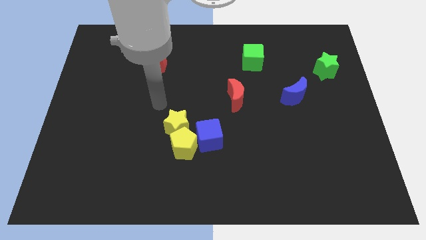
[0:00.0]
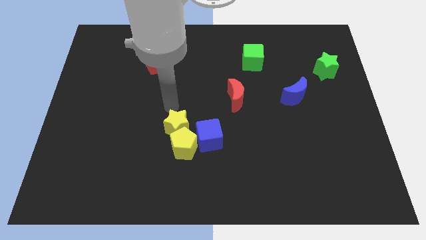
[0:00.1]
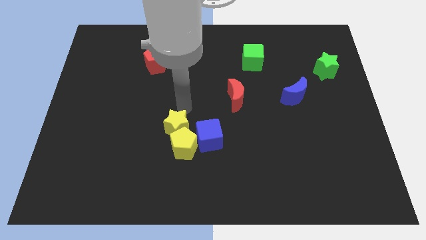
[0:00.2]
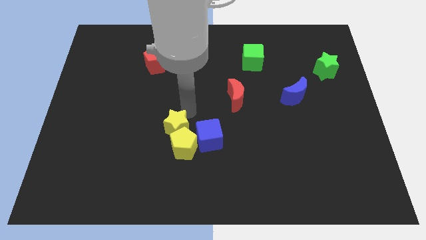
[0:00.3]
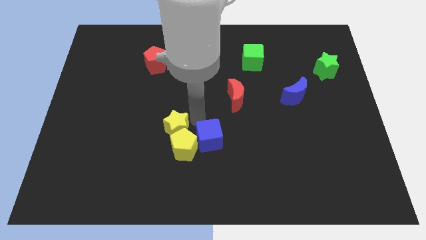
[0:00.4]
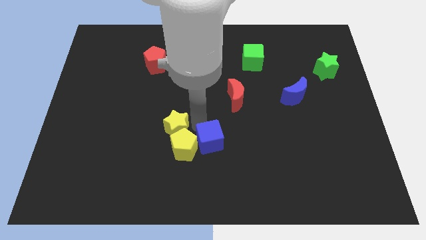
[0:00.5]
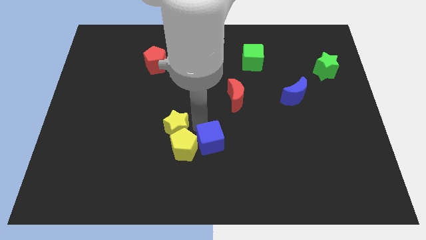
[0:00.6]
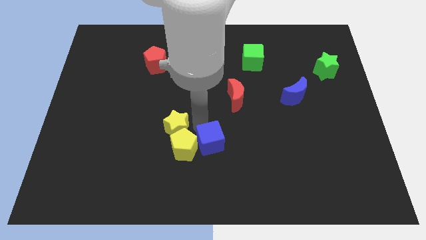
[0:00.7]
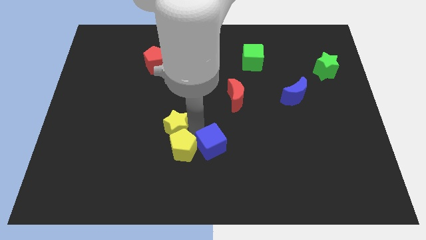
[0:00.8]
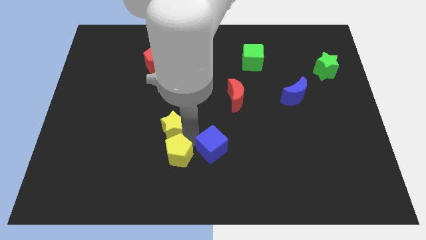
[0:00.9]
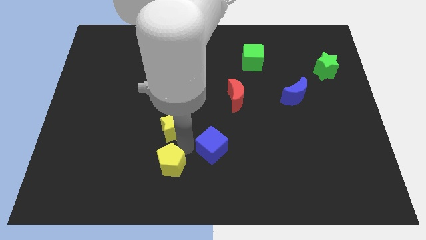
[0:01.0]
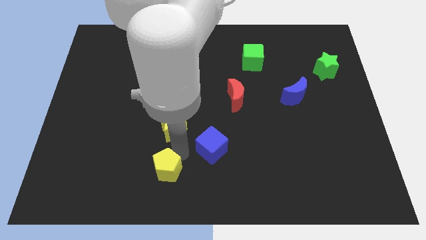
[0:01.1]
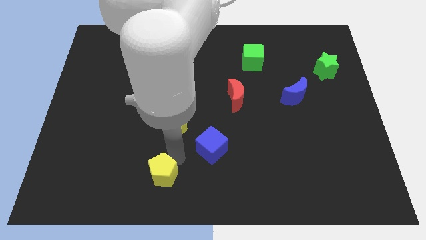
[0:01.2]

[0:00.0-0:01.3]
separate the yellow pentagon from the yellow star and blue cube

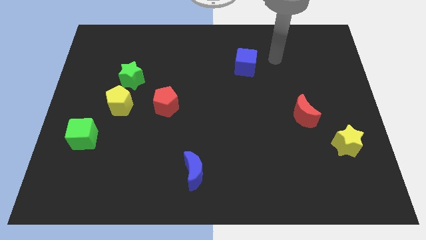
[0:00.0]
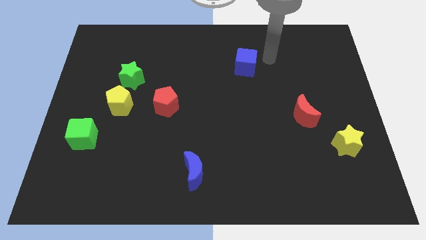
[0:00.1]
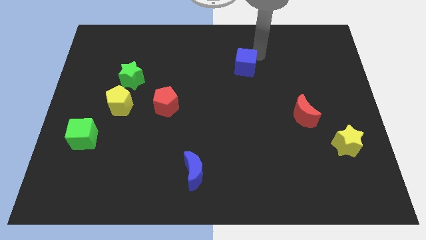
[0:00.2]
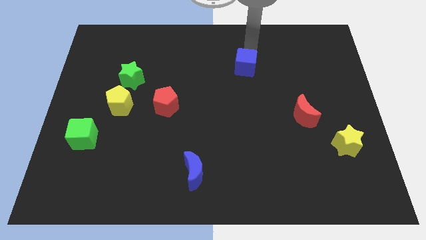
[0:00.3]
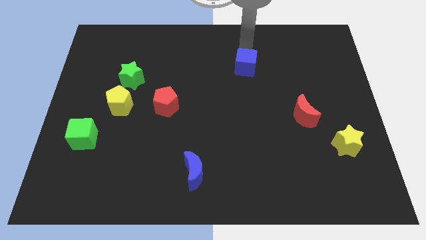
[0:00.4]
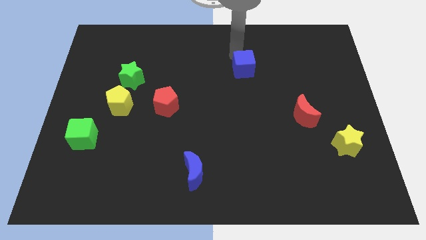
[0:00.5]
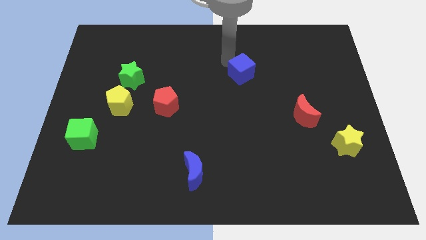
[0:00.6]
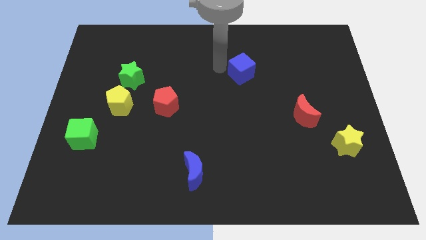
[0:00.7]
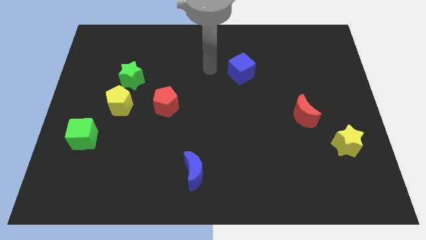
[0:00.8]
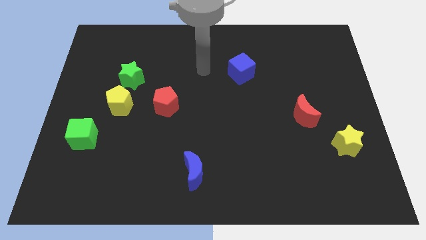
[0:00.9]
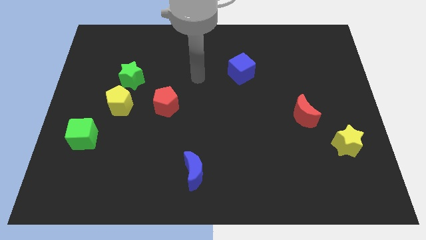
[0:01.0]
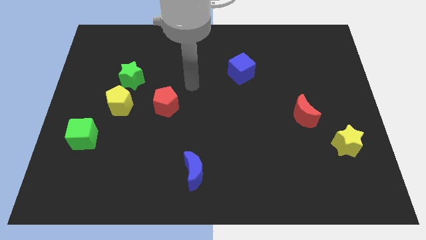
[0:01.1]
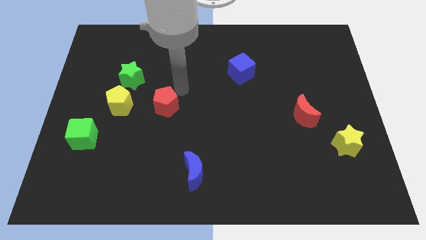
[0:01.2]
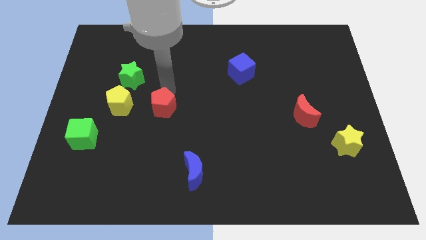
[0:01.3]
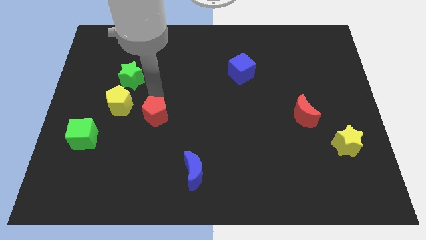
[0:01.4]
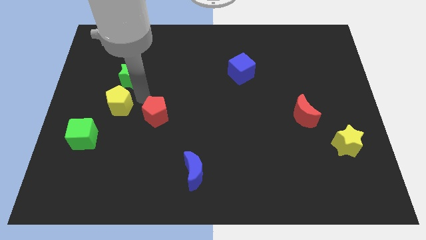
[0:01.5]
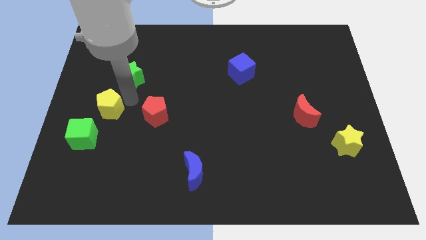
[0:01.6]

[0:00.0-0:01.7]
separate the green star from the yellow pentagon

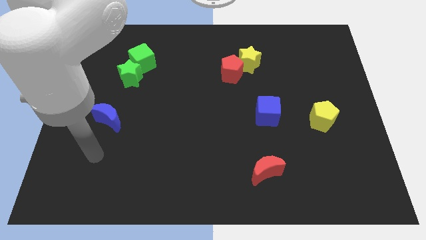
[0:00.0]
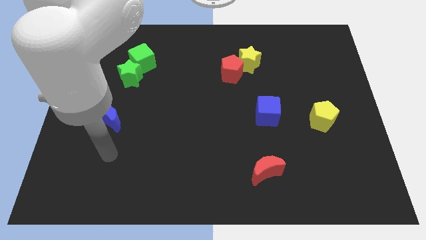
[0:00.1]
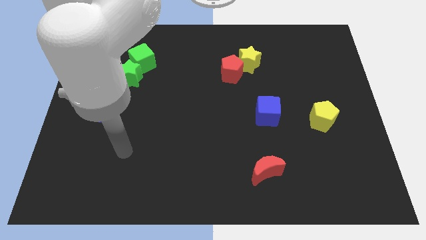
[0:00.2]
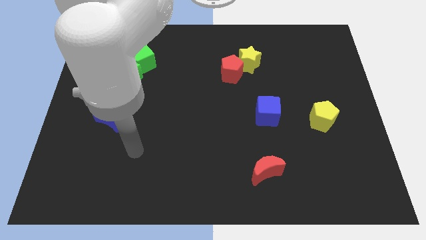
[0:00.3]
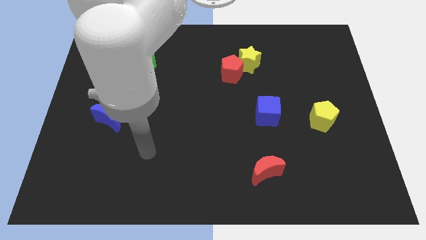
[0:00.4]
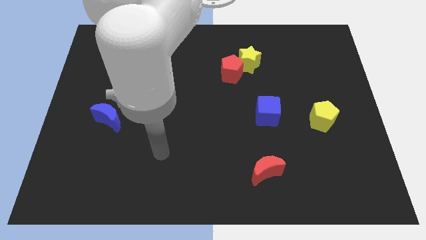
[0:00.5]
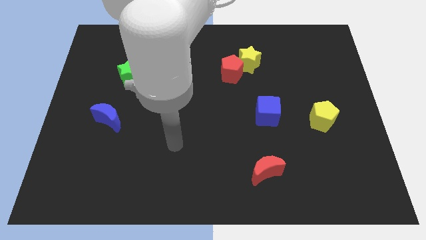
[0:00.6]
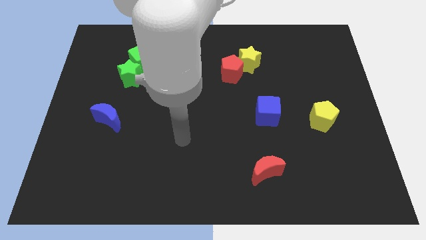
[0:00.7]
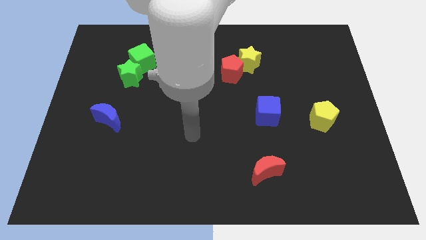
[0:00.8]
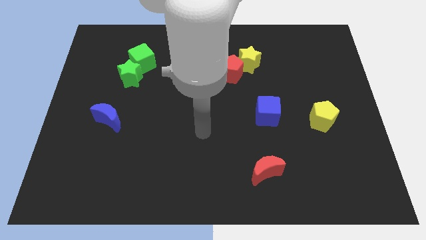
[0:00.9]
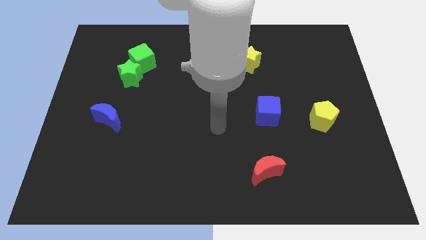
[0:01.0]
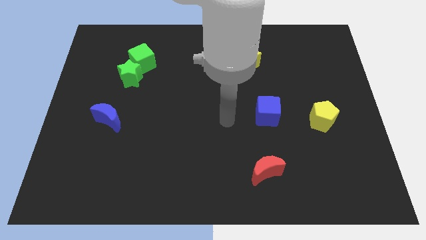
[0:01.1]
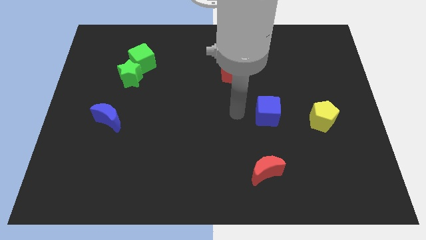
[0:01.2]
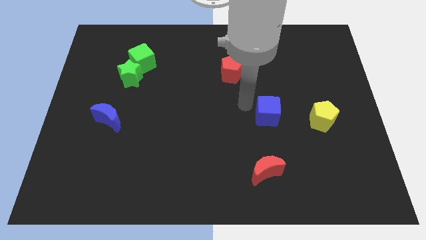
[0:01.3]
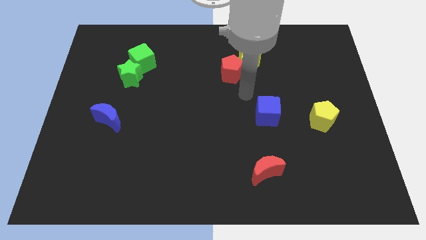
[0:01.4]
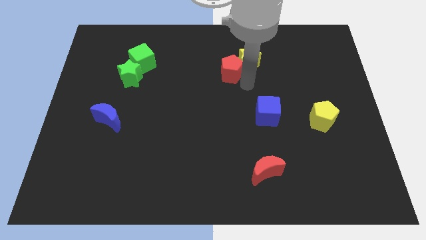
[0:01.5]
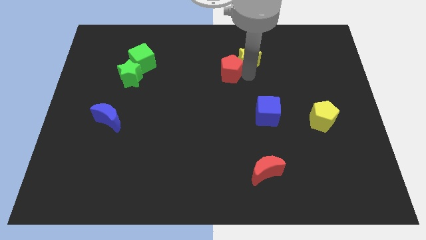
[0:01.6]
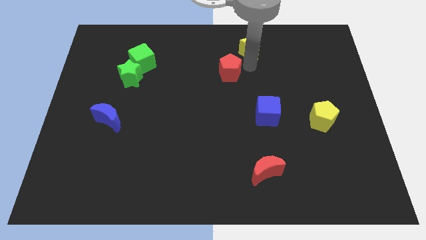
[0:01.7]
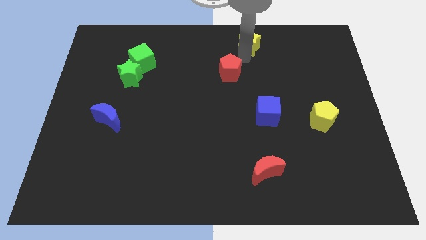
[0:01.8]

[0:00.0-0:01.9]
pull the red pentagon apart from the yellow star

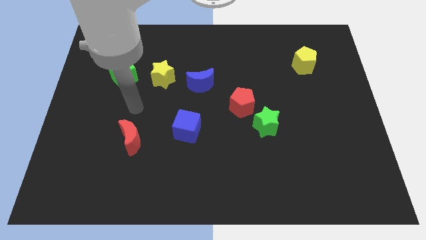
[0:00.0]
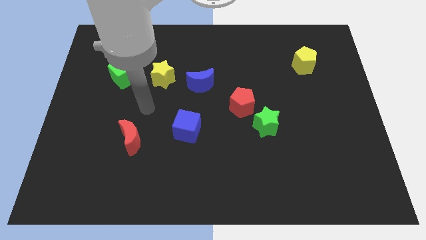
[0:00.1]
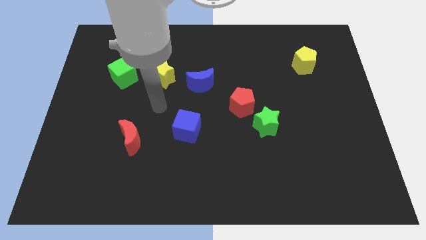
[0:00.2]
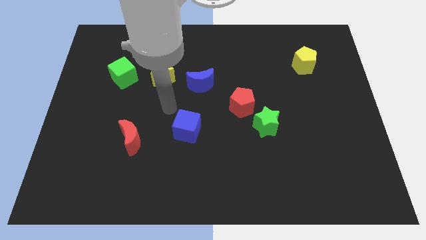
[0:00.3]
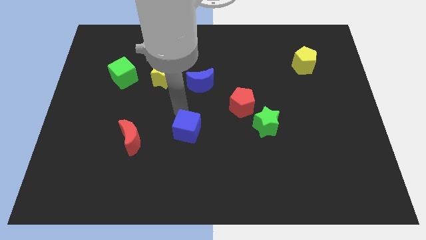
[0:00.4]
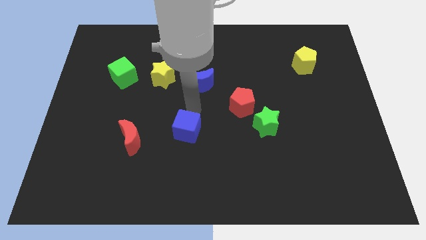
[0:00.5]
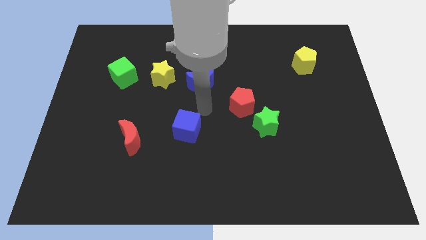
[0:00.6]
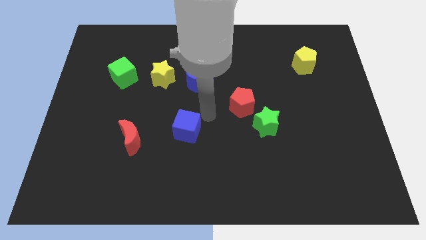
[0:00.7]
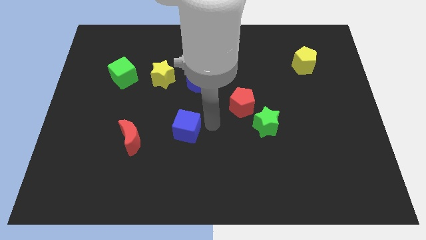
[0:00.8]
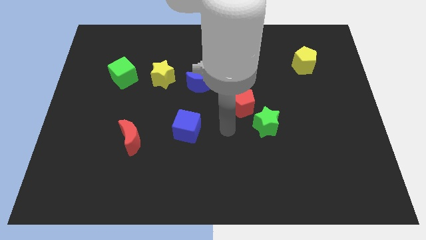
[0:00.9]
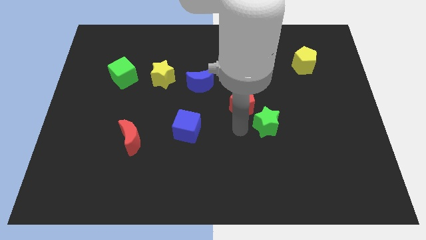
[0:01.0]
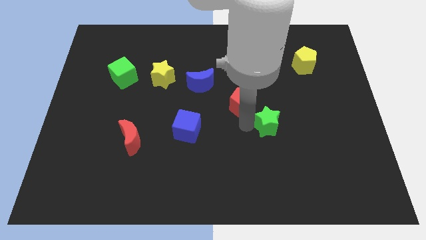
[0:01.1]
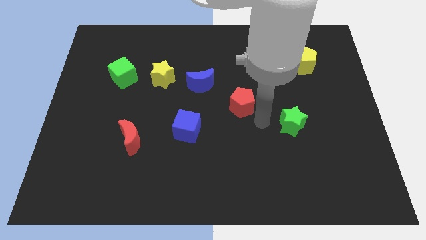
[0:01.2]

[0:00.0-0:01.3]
pull the red pentagon apart from the green star

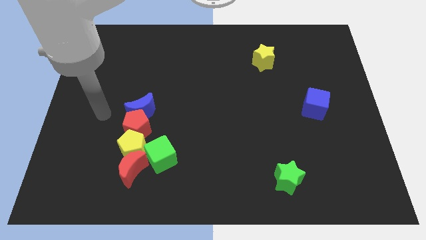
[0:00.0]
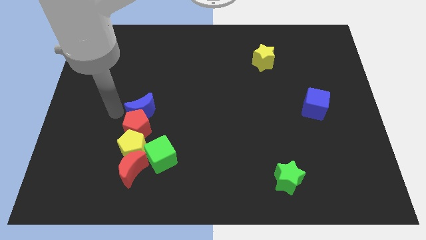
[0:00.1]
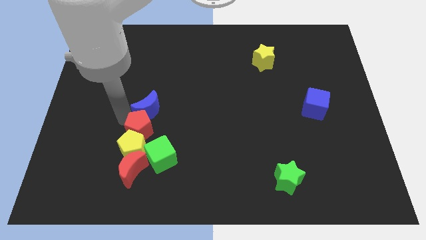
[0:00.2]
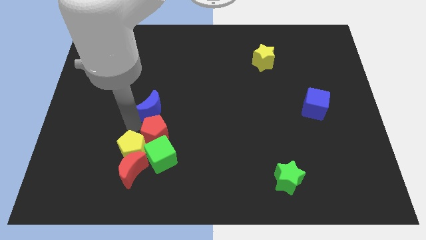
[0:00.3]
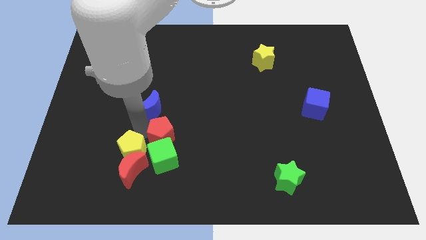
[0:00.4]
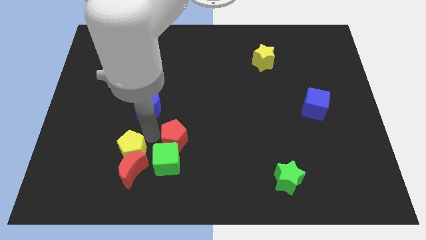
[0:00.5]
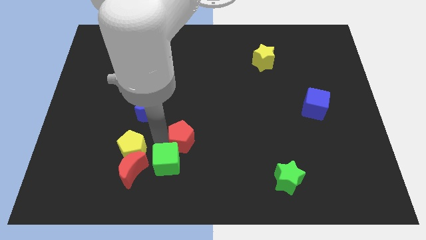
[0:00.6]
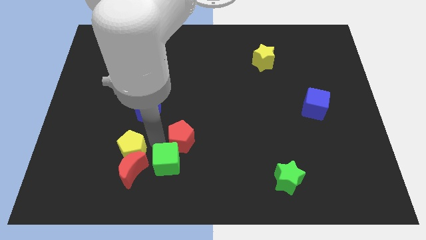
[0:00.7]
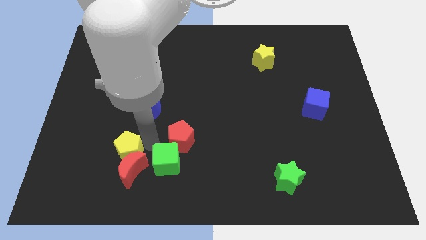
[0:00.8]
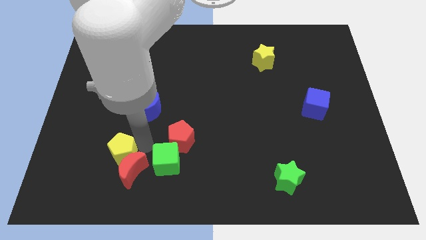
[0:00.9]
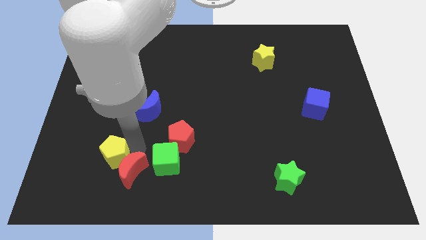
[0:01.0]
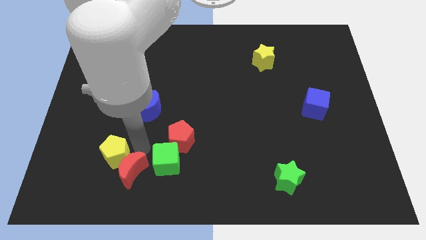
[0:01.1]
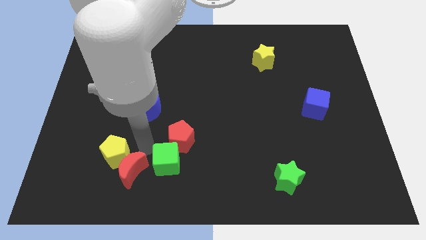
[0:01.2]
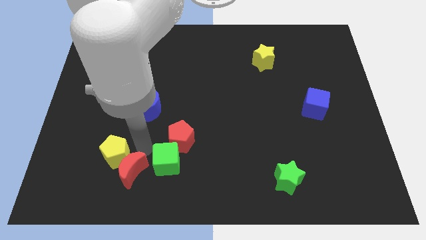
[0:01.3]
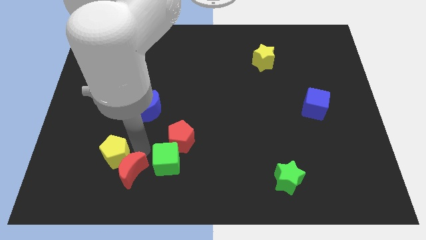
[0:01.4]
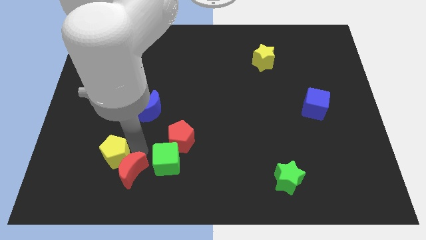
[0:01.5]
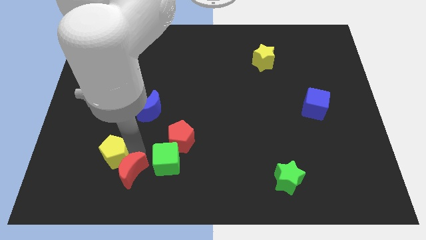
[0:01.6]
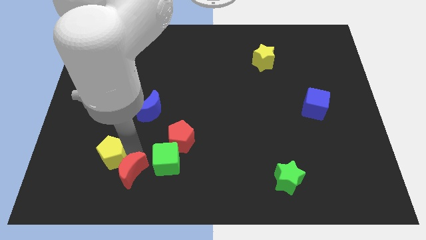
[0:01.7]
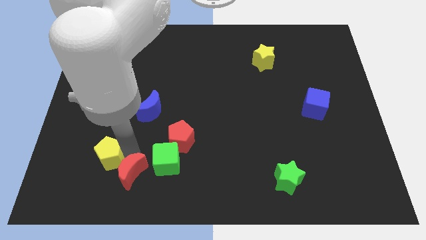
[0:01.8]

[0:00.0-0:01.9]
move the yellow pentagon away from the group

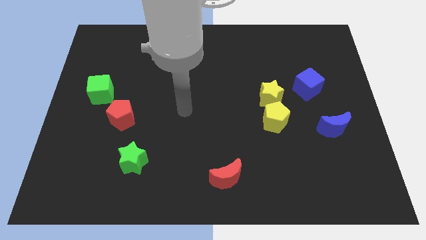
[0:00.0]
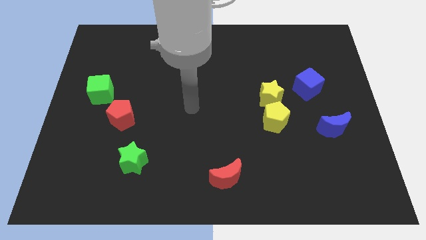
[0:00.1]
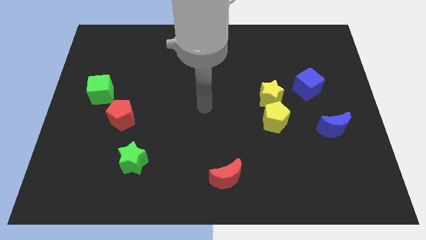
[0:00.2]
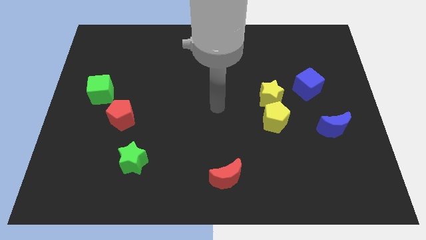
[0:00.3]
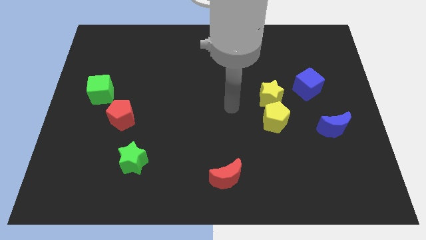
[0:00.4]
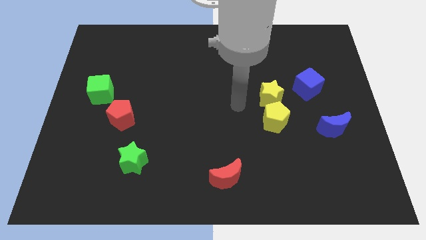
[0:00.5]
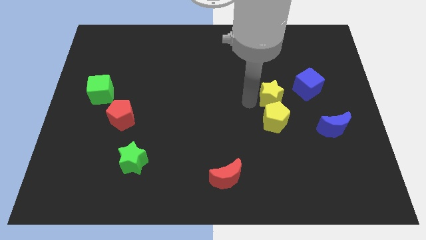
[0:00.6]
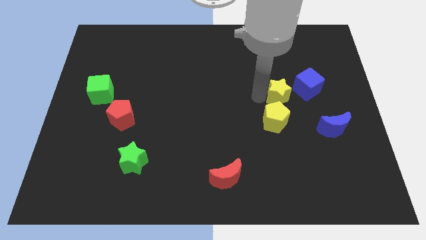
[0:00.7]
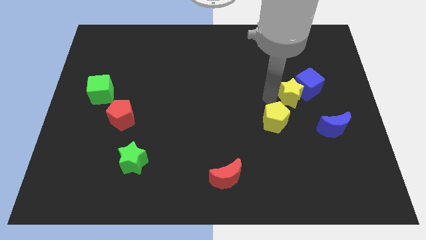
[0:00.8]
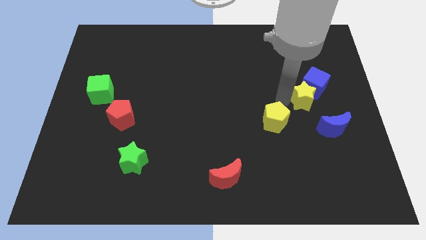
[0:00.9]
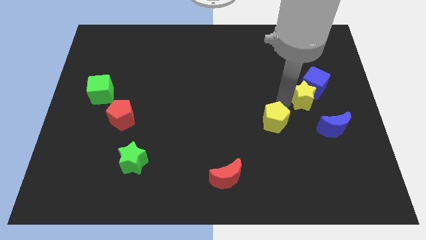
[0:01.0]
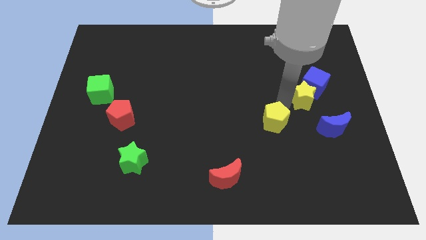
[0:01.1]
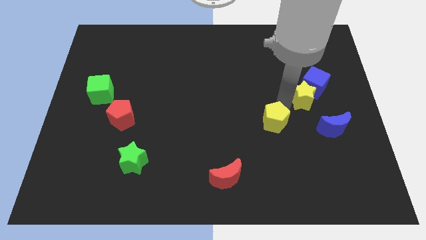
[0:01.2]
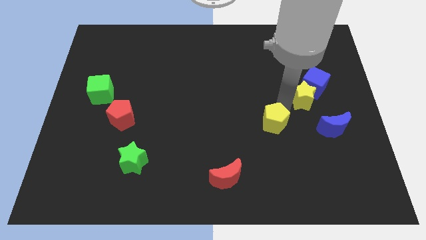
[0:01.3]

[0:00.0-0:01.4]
pull the yellow pentagon apart from the yellow star
